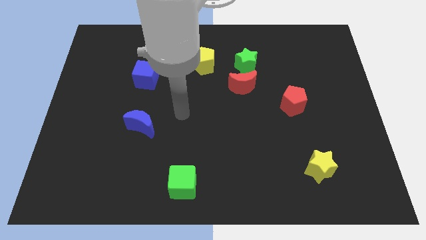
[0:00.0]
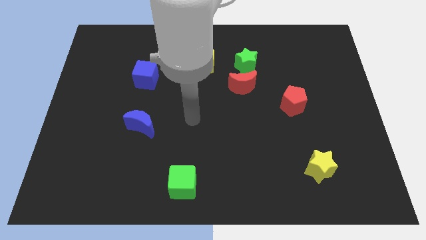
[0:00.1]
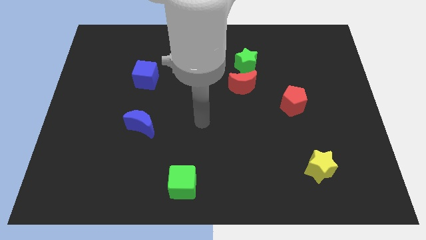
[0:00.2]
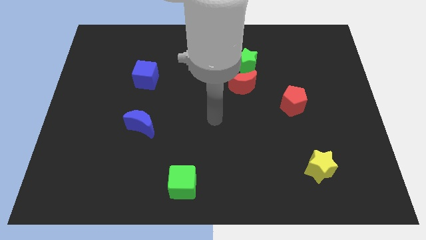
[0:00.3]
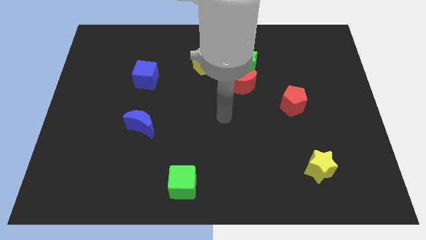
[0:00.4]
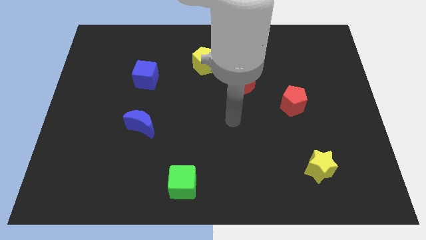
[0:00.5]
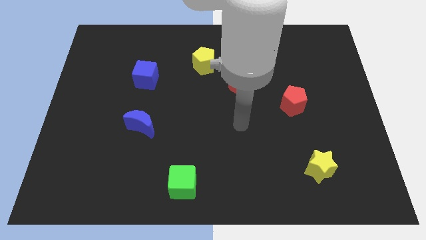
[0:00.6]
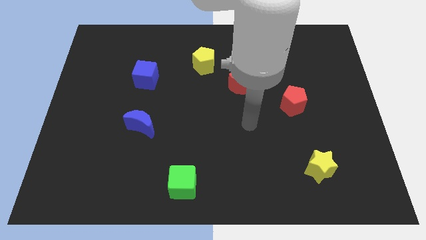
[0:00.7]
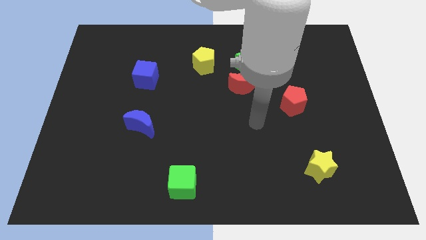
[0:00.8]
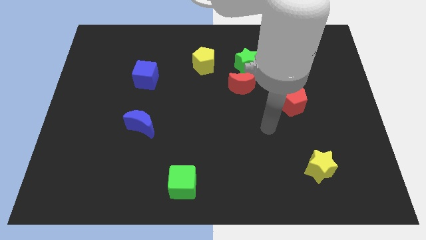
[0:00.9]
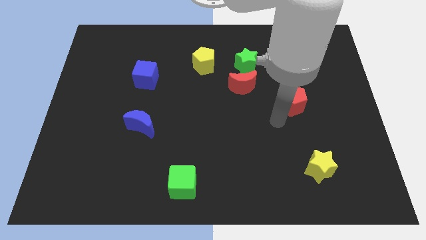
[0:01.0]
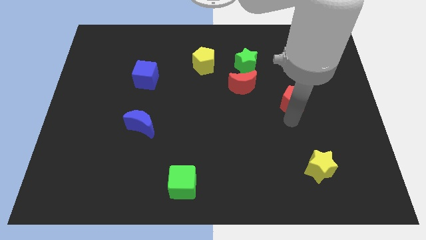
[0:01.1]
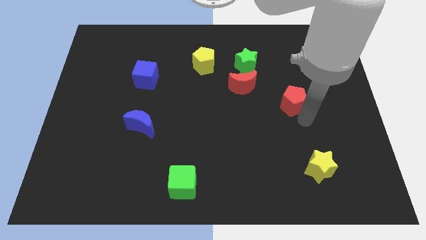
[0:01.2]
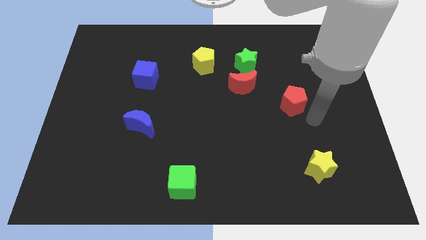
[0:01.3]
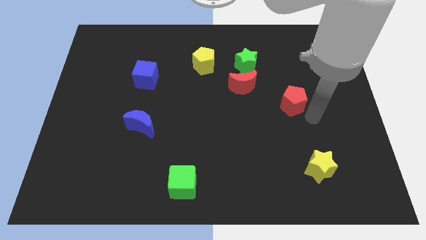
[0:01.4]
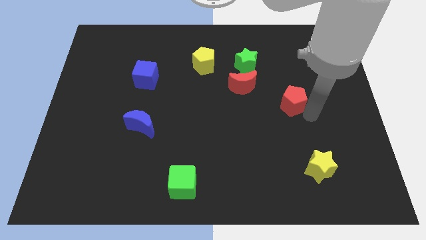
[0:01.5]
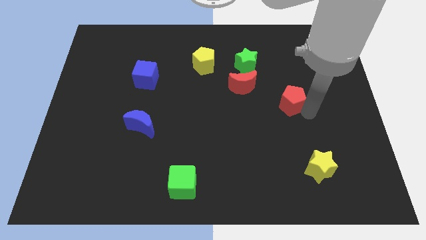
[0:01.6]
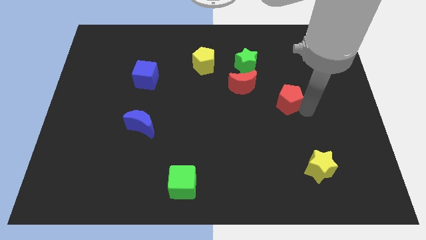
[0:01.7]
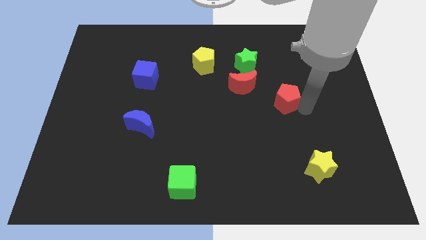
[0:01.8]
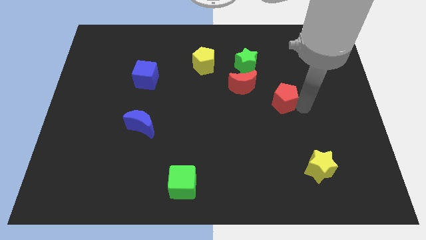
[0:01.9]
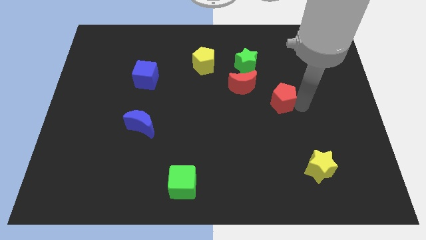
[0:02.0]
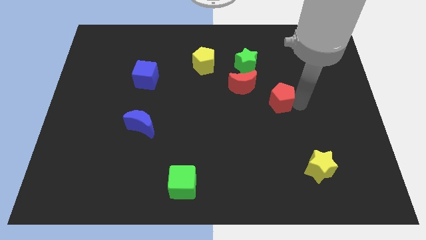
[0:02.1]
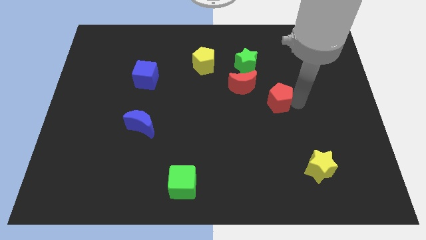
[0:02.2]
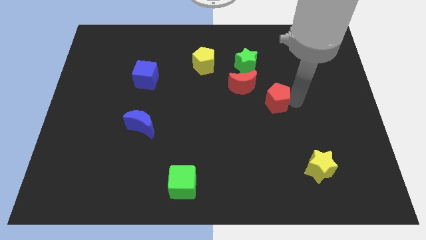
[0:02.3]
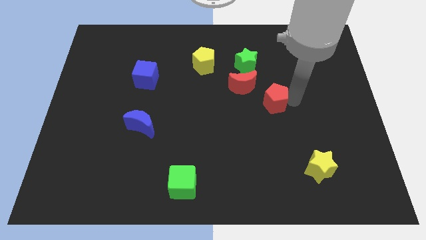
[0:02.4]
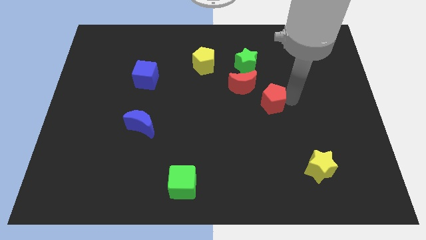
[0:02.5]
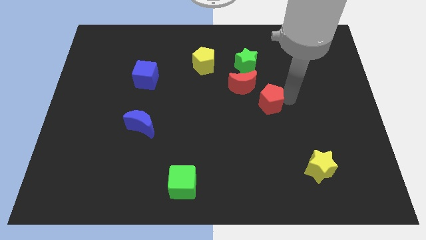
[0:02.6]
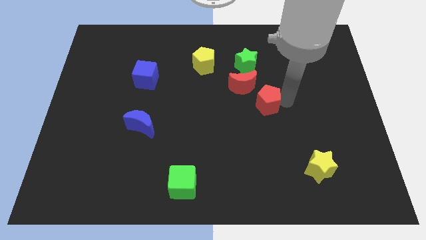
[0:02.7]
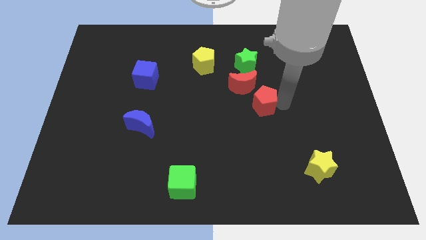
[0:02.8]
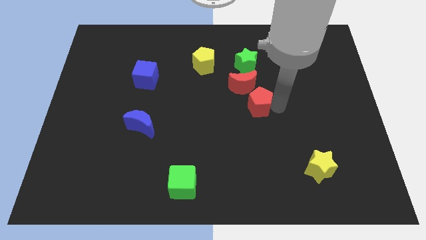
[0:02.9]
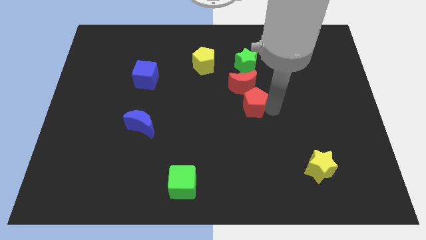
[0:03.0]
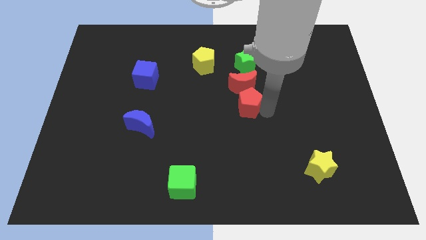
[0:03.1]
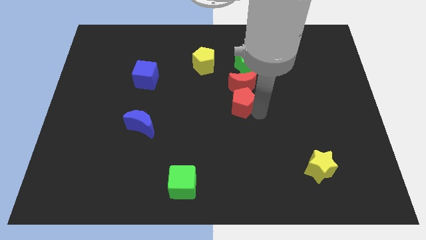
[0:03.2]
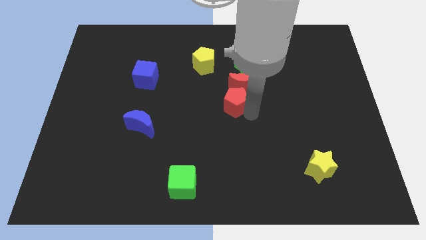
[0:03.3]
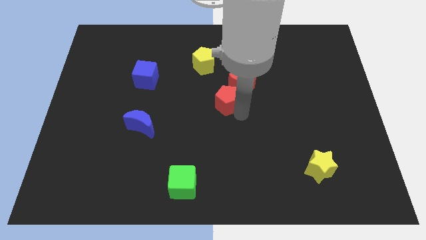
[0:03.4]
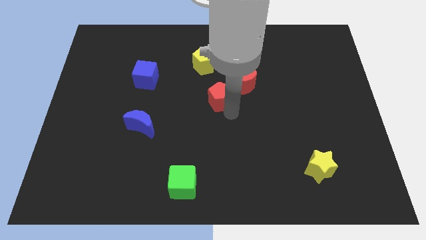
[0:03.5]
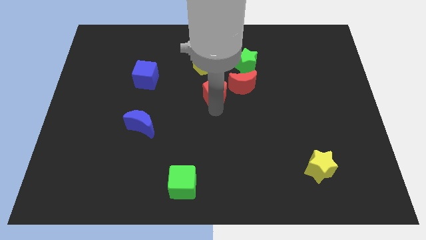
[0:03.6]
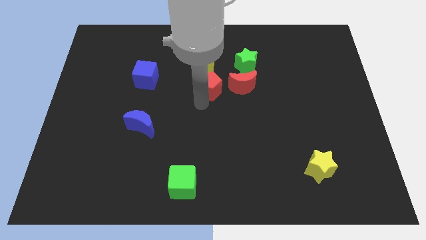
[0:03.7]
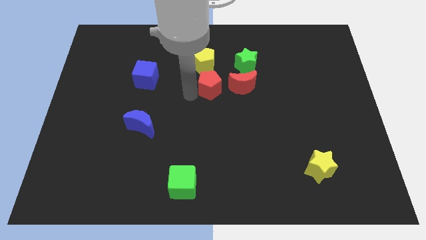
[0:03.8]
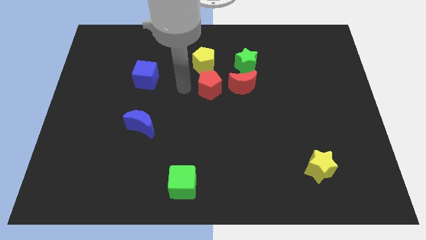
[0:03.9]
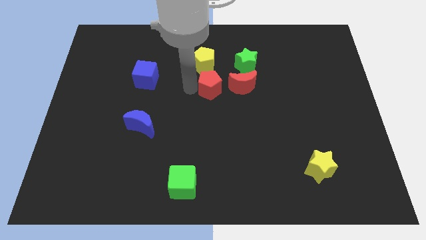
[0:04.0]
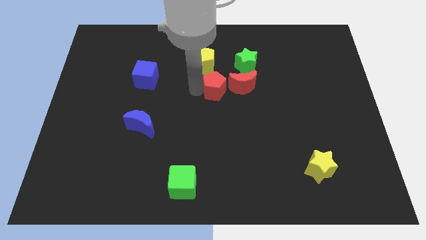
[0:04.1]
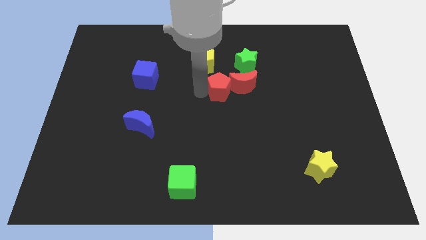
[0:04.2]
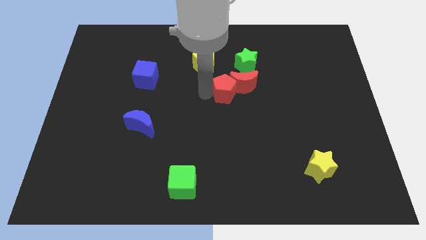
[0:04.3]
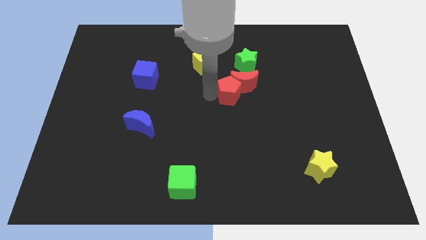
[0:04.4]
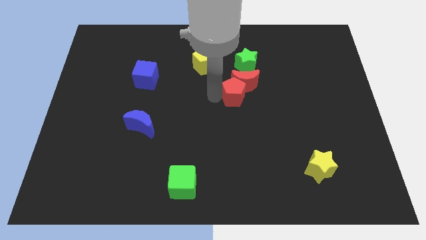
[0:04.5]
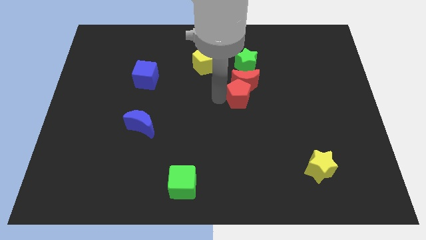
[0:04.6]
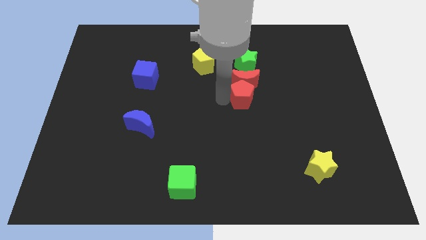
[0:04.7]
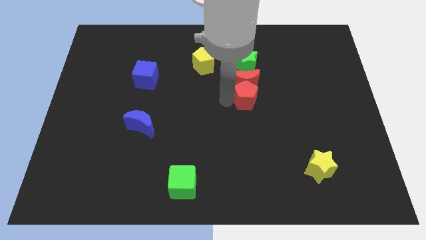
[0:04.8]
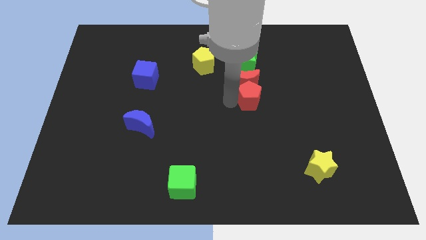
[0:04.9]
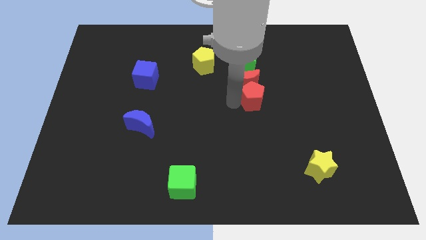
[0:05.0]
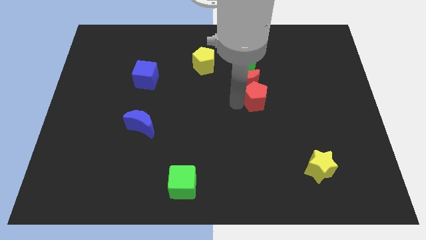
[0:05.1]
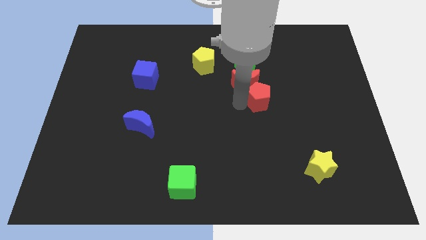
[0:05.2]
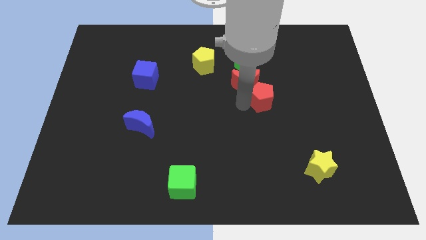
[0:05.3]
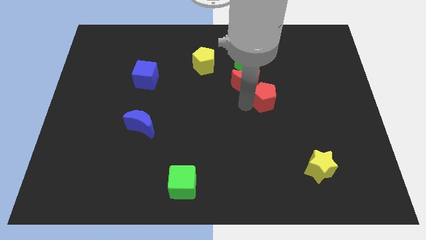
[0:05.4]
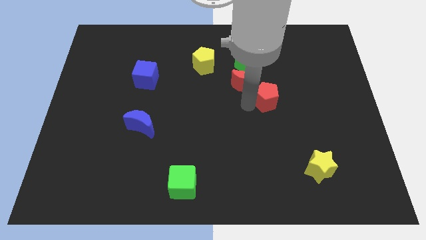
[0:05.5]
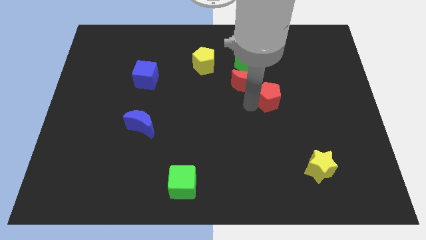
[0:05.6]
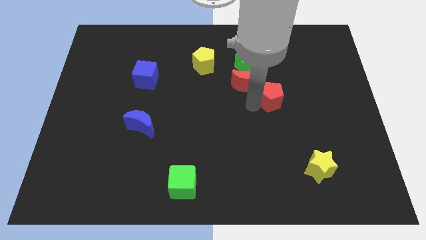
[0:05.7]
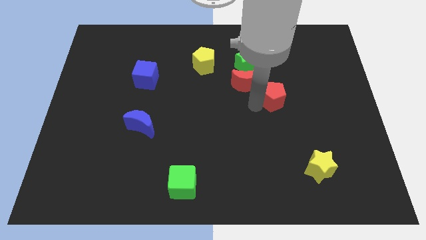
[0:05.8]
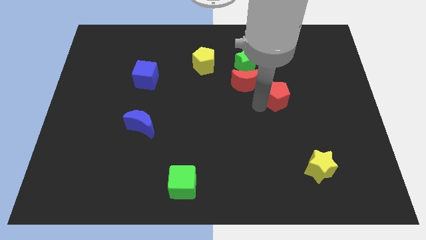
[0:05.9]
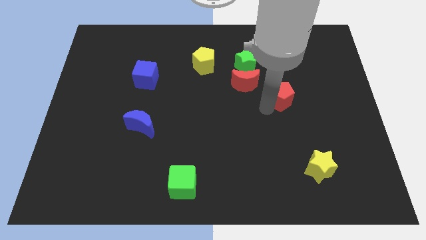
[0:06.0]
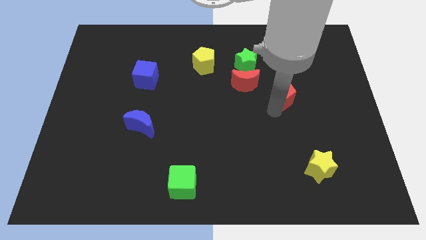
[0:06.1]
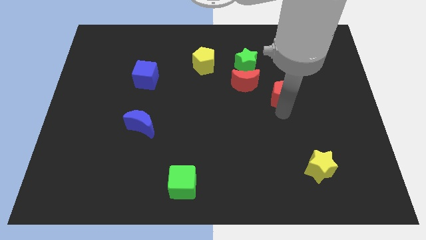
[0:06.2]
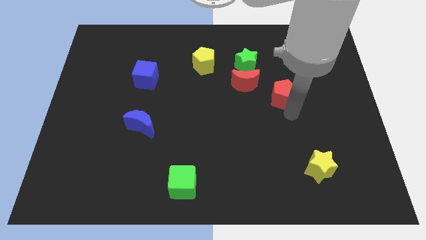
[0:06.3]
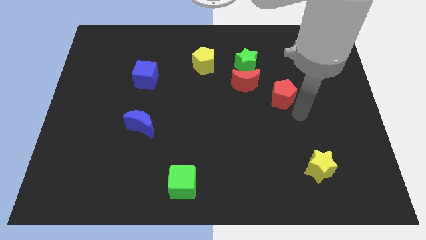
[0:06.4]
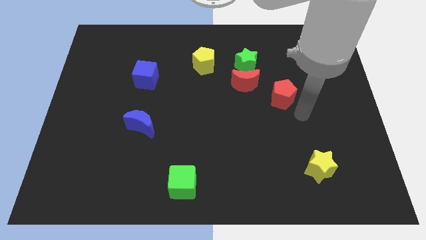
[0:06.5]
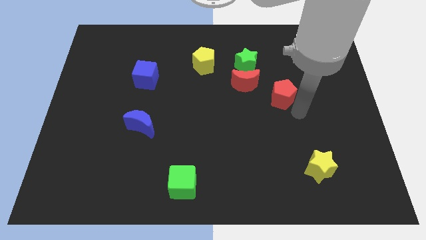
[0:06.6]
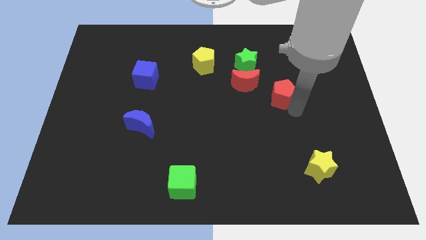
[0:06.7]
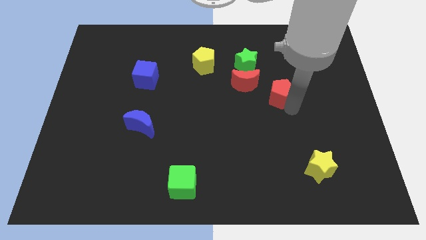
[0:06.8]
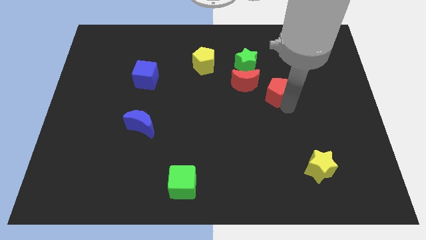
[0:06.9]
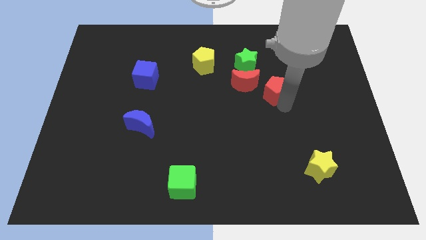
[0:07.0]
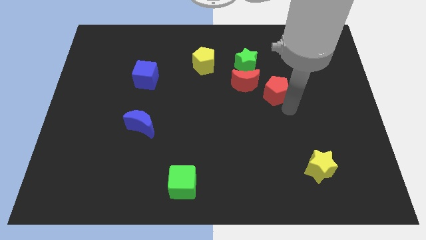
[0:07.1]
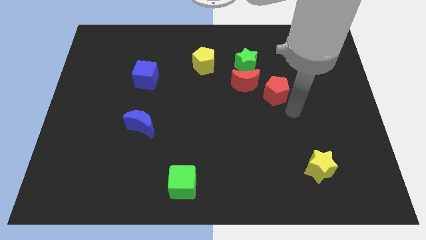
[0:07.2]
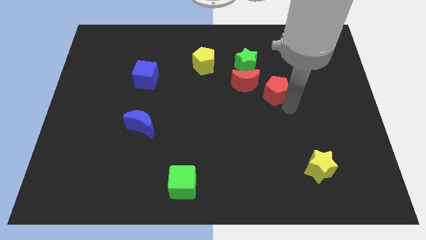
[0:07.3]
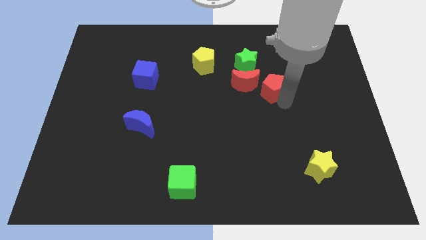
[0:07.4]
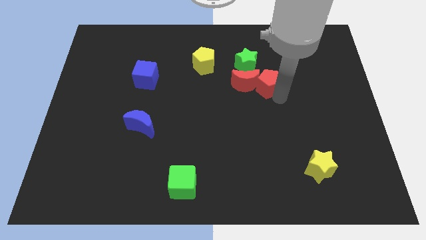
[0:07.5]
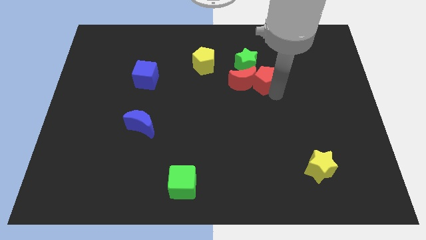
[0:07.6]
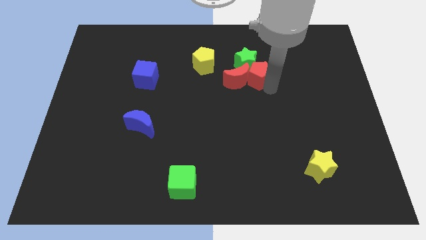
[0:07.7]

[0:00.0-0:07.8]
move the red pentagon close to the green star
